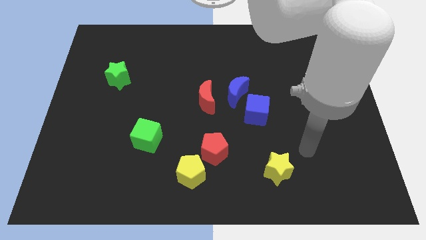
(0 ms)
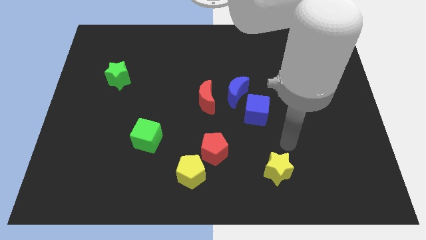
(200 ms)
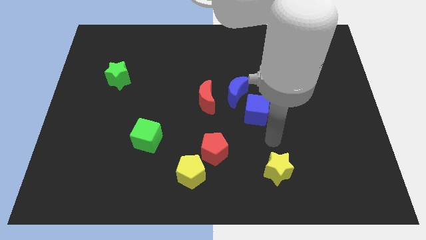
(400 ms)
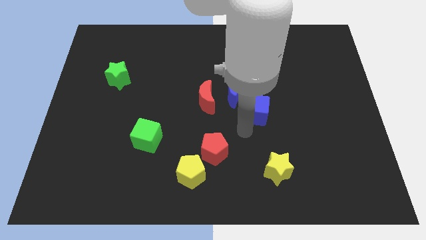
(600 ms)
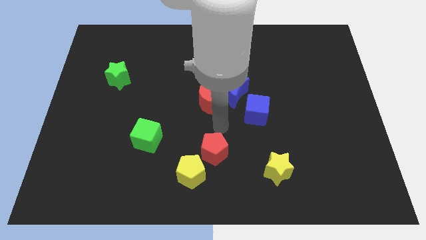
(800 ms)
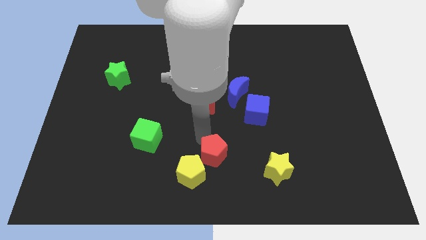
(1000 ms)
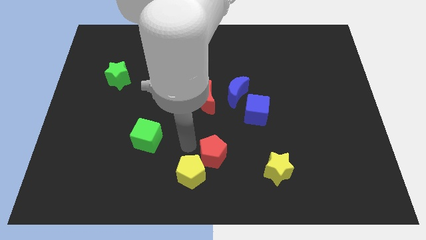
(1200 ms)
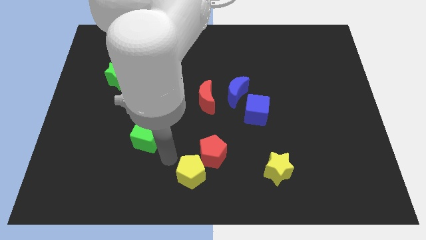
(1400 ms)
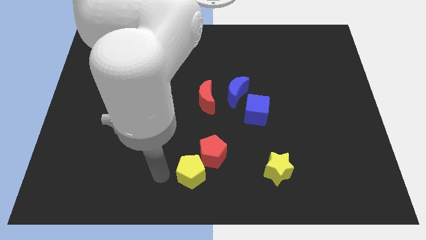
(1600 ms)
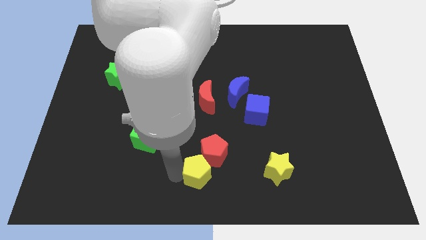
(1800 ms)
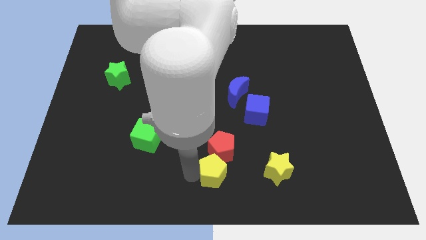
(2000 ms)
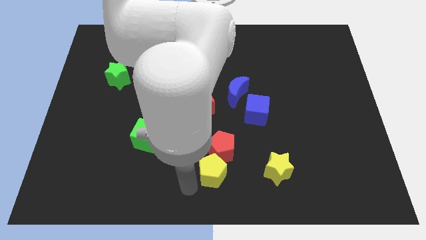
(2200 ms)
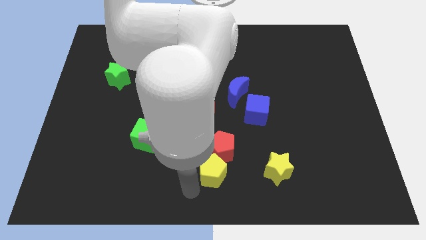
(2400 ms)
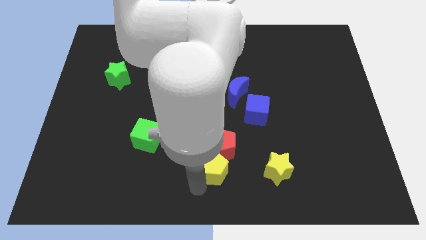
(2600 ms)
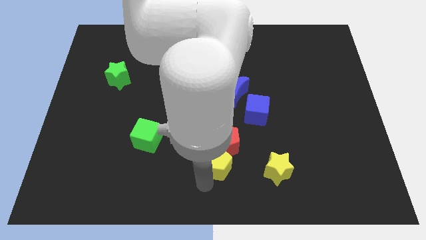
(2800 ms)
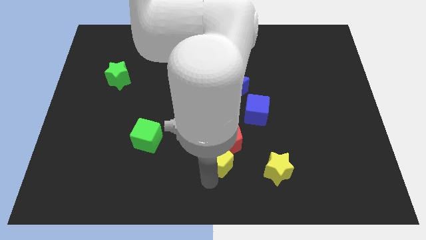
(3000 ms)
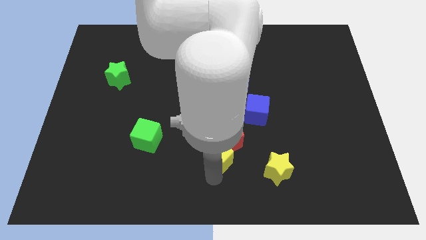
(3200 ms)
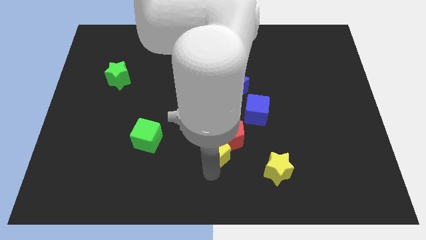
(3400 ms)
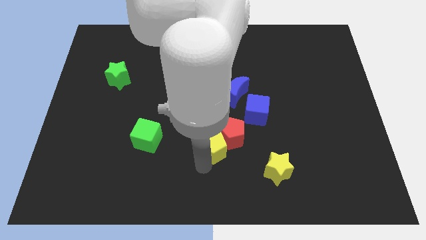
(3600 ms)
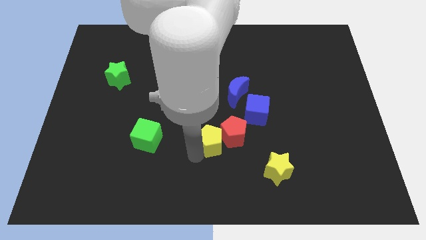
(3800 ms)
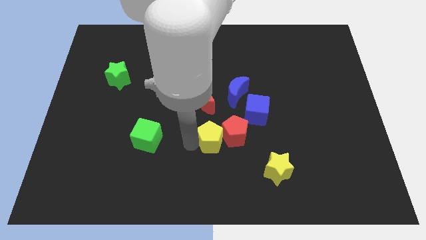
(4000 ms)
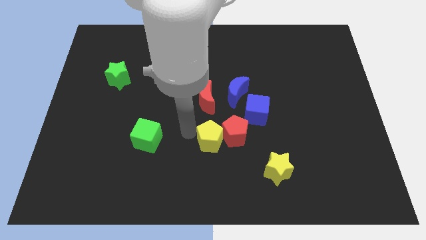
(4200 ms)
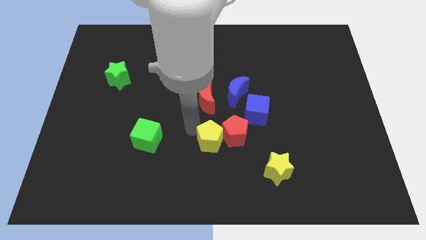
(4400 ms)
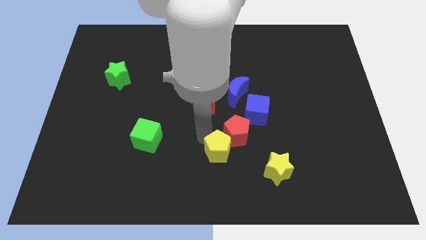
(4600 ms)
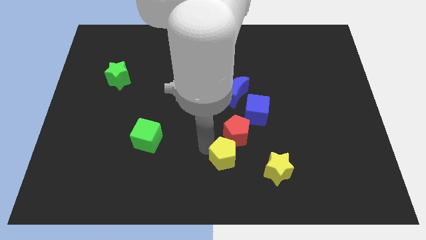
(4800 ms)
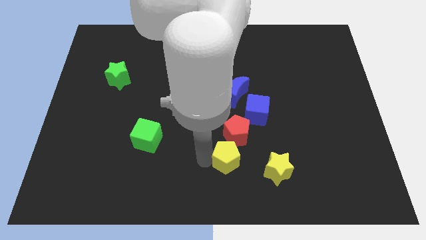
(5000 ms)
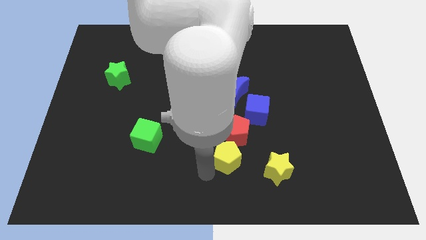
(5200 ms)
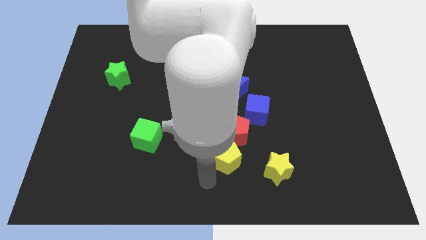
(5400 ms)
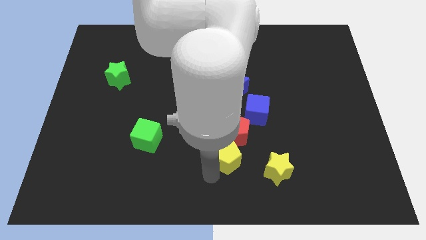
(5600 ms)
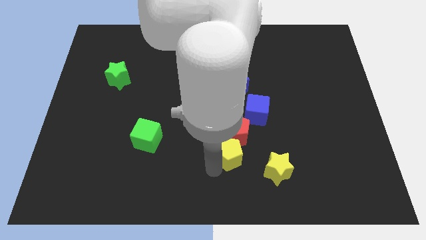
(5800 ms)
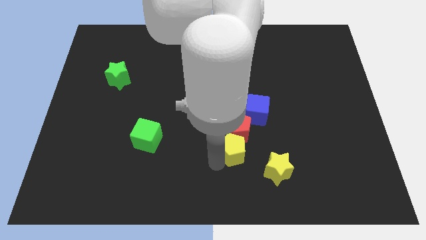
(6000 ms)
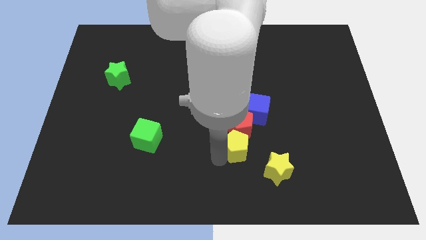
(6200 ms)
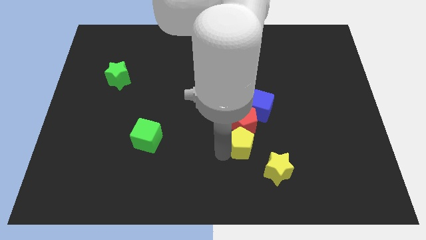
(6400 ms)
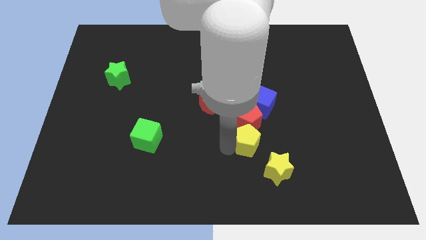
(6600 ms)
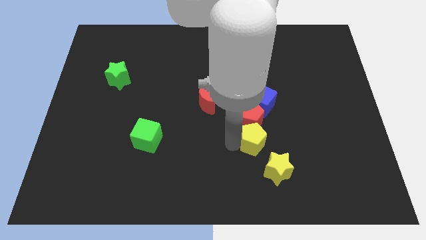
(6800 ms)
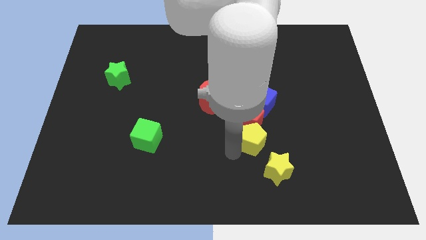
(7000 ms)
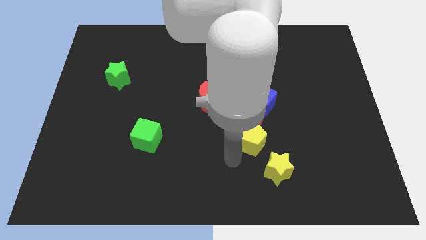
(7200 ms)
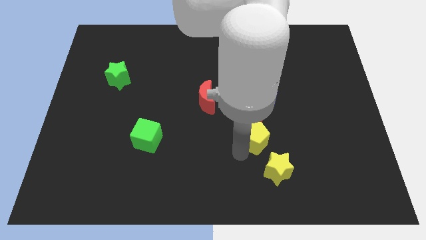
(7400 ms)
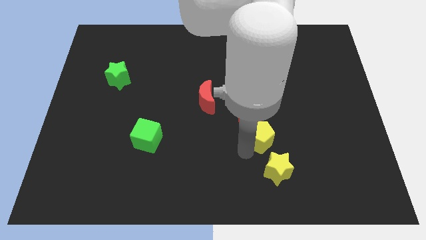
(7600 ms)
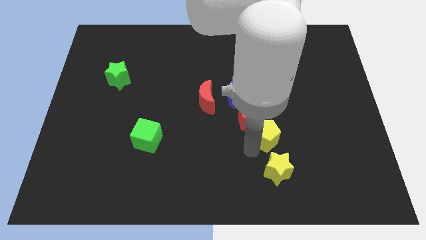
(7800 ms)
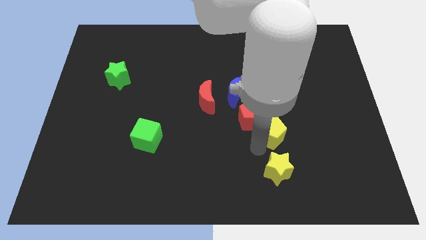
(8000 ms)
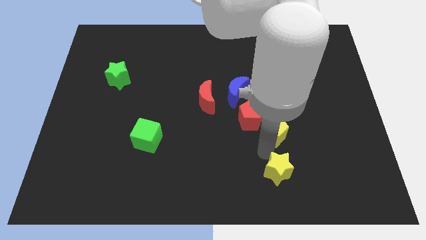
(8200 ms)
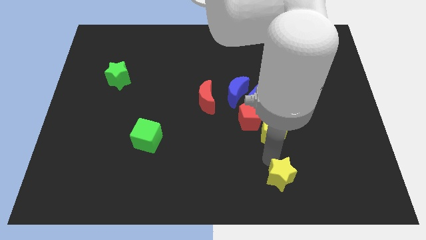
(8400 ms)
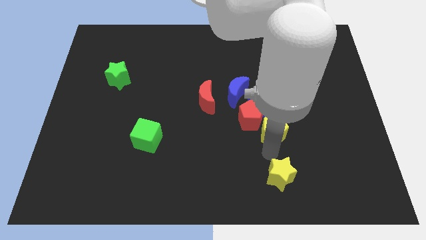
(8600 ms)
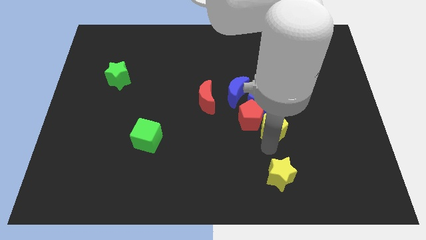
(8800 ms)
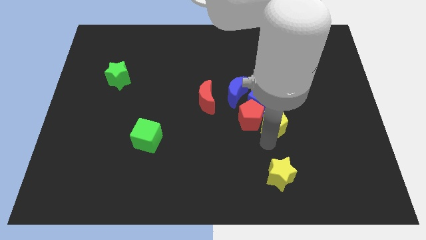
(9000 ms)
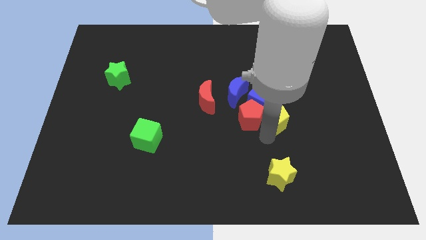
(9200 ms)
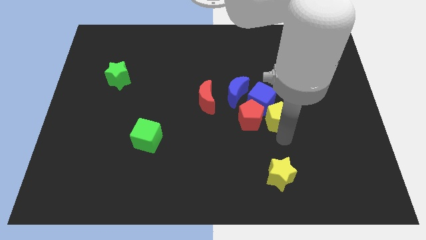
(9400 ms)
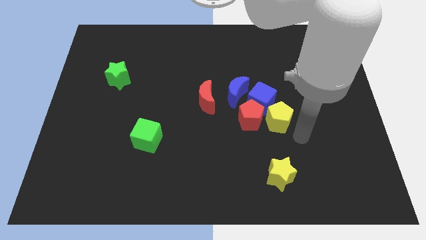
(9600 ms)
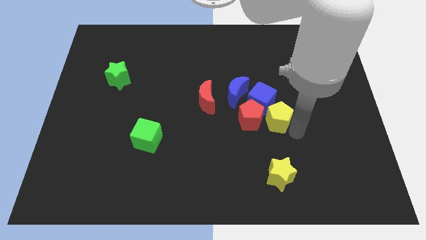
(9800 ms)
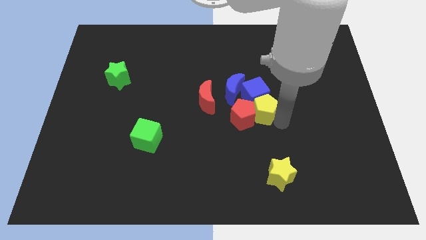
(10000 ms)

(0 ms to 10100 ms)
put the yellow pentagon to the right side of the red moon

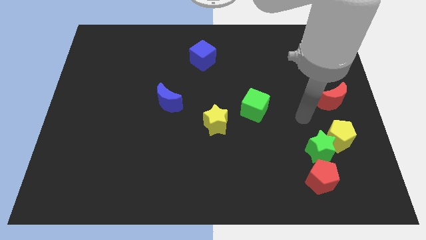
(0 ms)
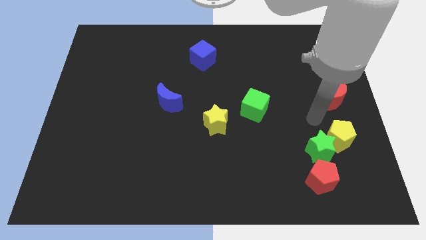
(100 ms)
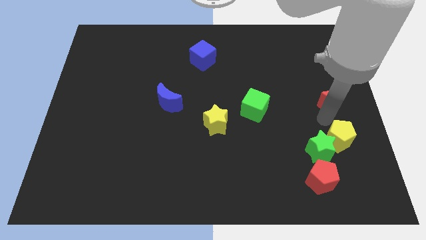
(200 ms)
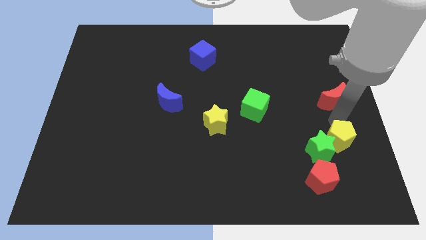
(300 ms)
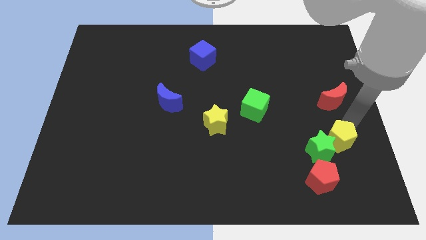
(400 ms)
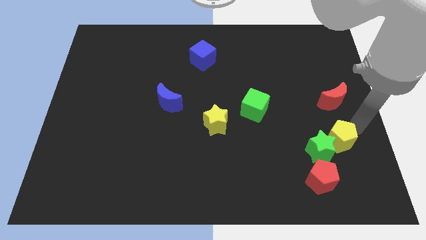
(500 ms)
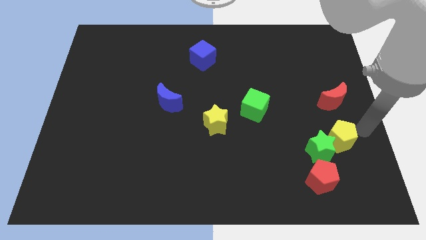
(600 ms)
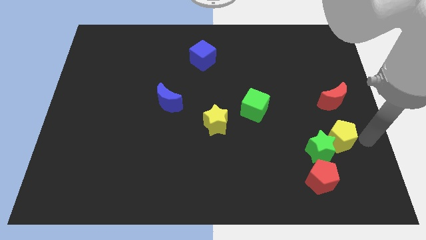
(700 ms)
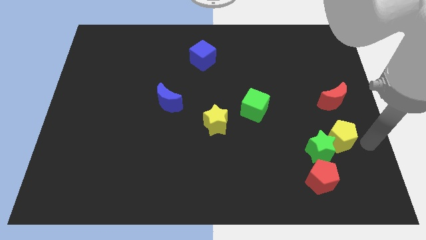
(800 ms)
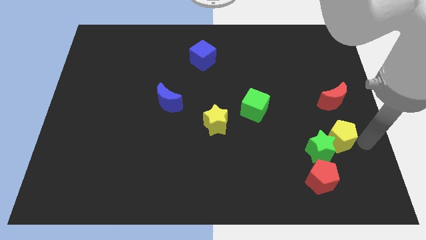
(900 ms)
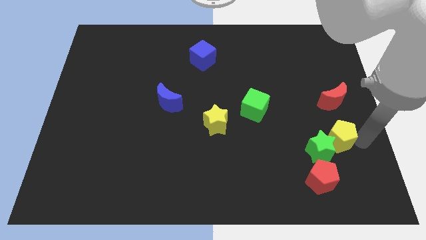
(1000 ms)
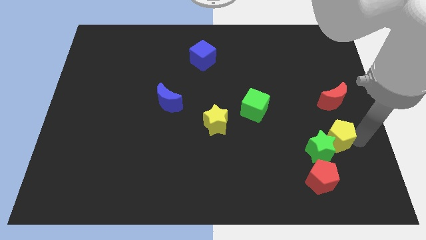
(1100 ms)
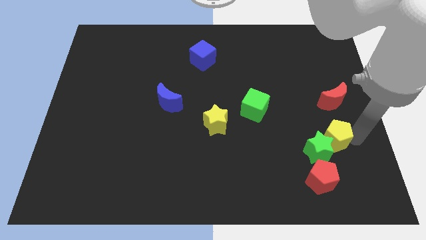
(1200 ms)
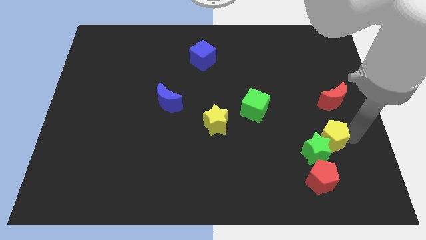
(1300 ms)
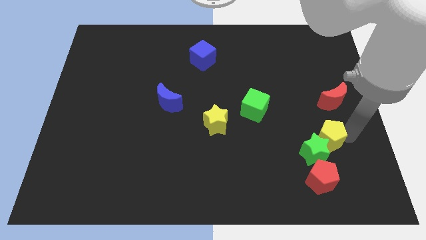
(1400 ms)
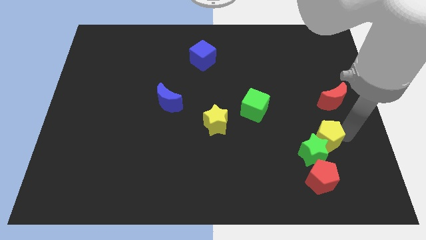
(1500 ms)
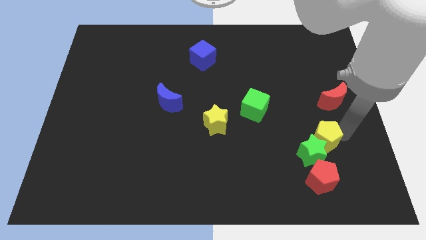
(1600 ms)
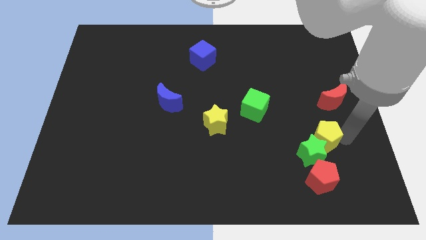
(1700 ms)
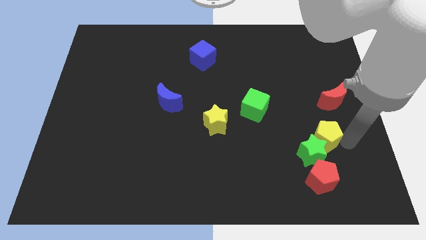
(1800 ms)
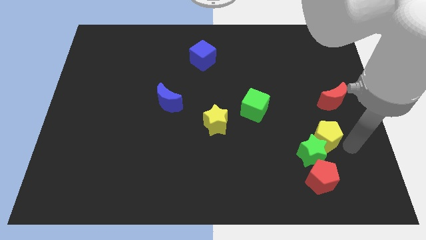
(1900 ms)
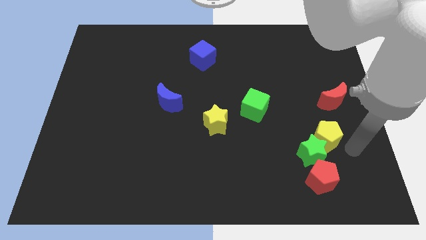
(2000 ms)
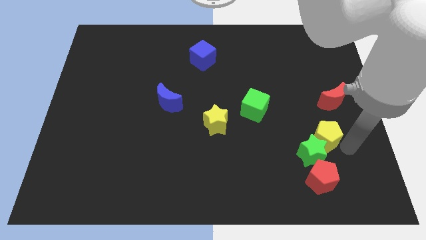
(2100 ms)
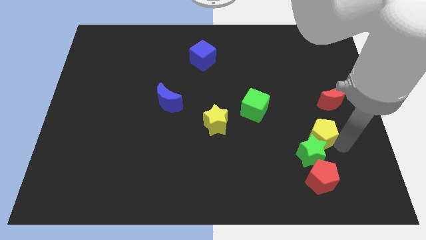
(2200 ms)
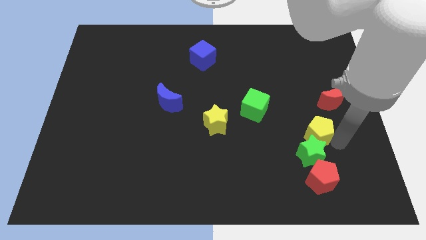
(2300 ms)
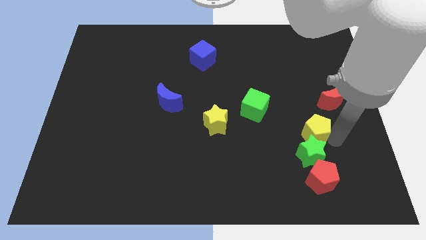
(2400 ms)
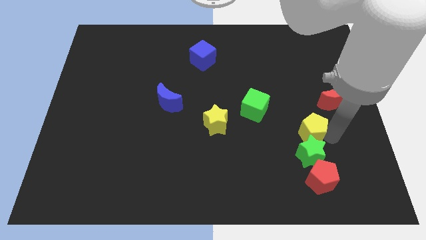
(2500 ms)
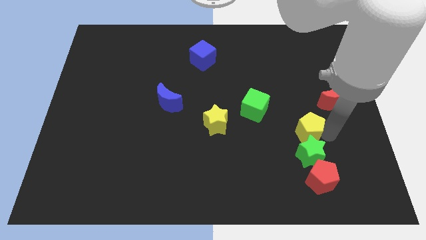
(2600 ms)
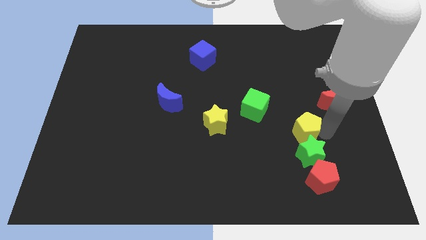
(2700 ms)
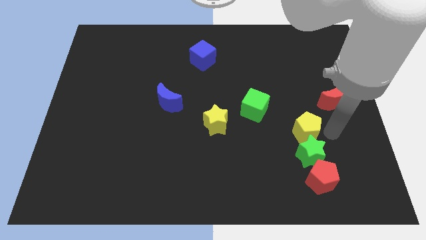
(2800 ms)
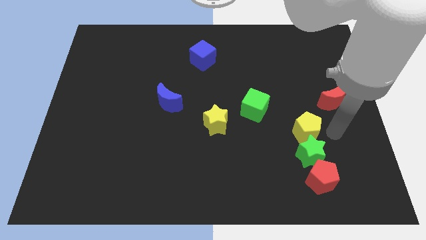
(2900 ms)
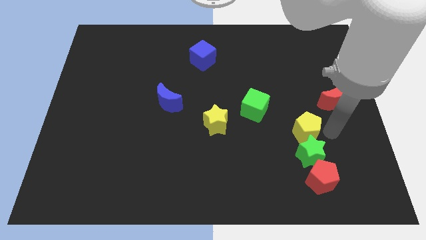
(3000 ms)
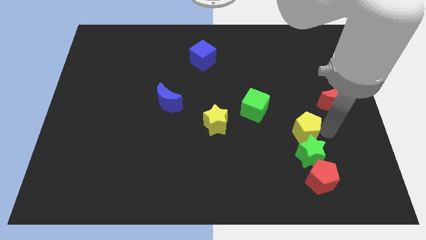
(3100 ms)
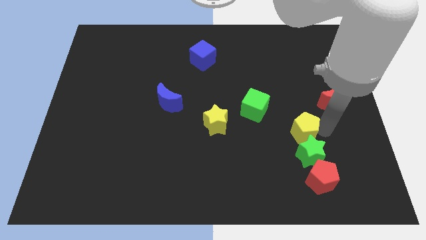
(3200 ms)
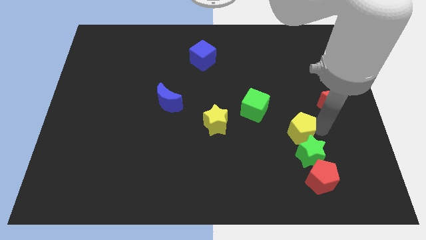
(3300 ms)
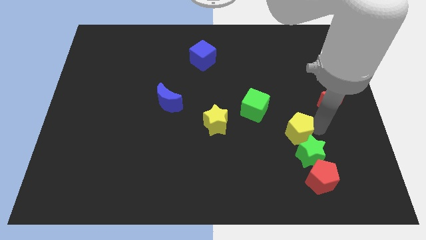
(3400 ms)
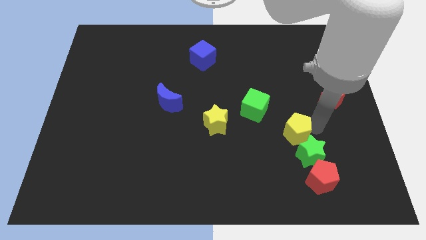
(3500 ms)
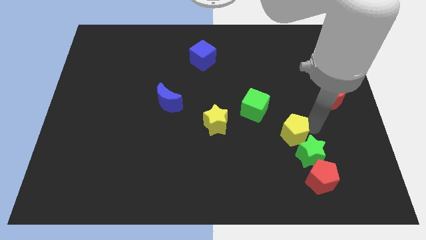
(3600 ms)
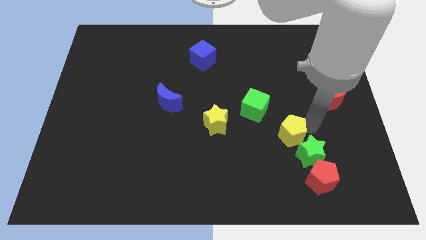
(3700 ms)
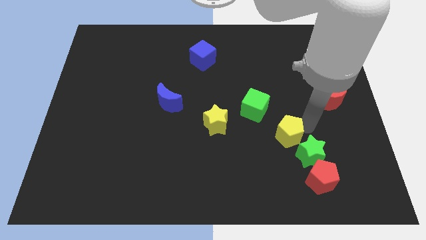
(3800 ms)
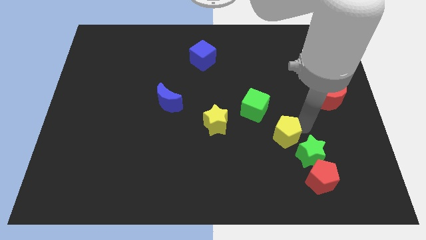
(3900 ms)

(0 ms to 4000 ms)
slide the yellow pentagon right of the yellow star
